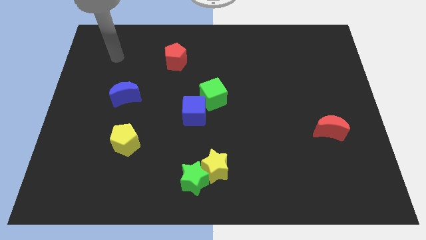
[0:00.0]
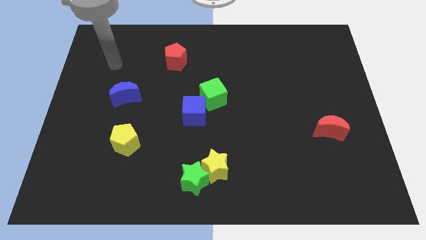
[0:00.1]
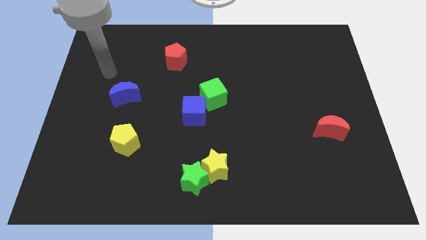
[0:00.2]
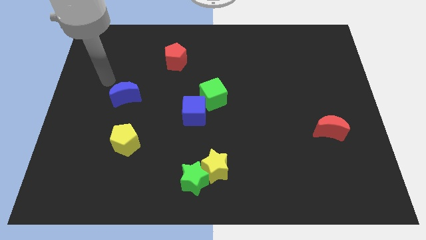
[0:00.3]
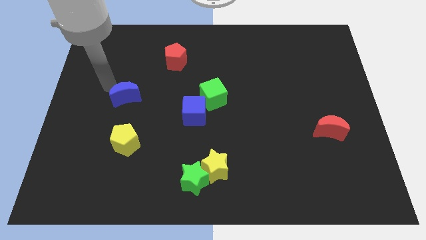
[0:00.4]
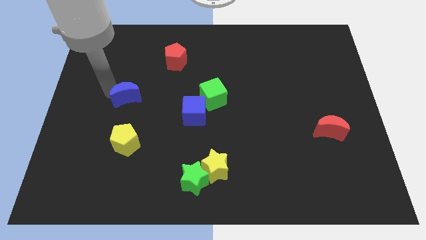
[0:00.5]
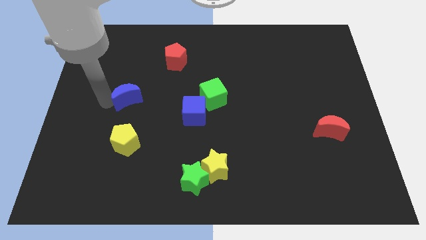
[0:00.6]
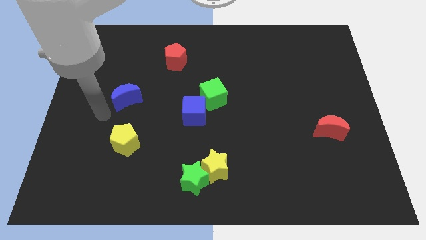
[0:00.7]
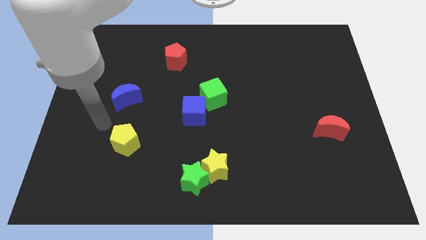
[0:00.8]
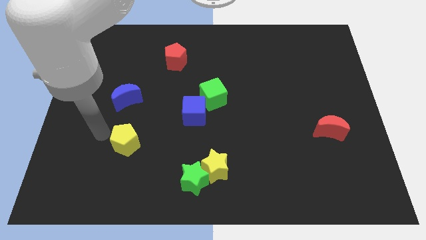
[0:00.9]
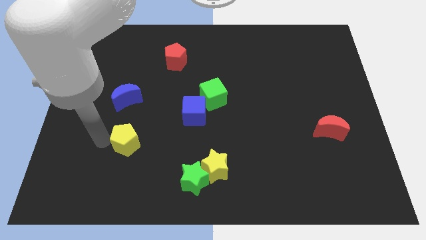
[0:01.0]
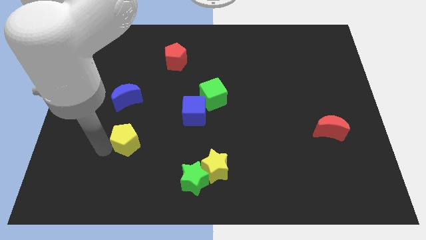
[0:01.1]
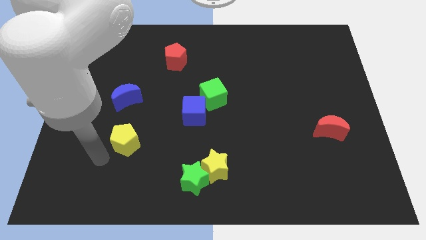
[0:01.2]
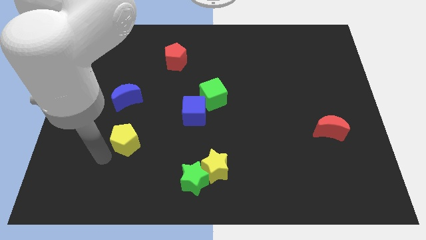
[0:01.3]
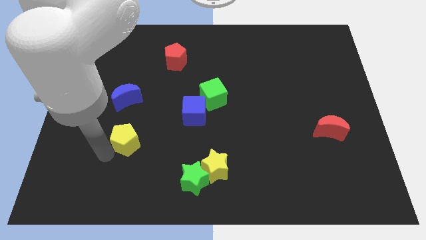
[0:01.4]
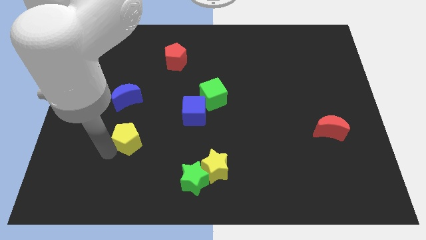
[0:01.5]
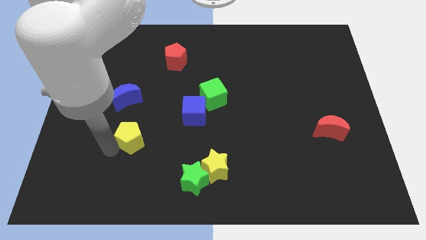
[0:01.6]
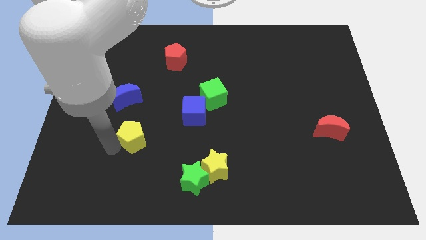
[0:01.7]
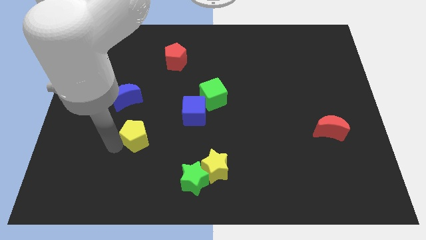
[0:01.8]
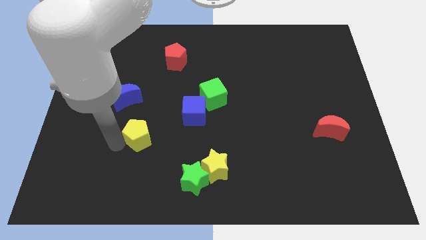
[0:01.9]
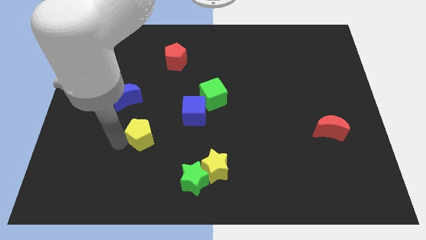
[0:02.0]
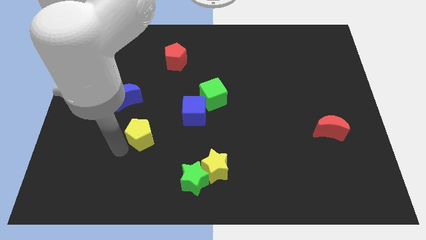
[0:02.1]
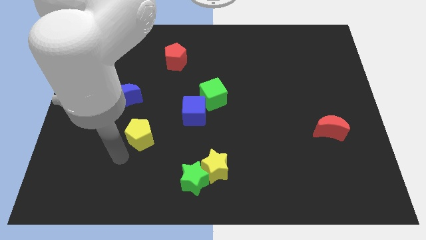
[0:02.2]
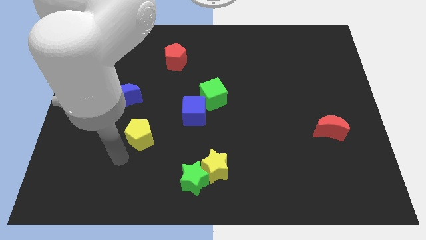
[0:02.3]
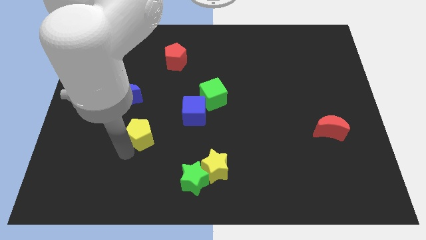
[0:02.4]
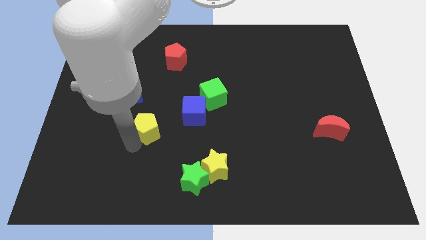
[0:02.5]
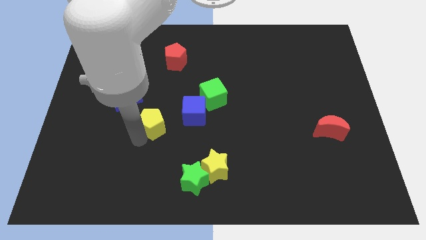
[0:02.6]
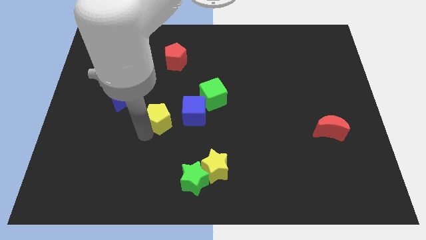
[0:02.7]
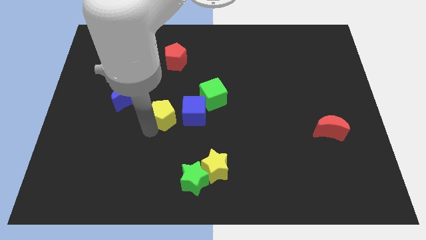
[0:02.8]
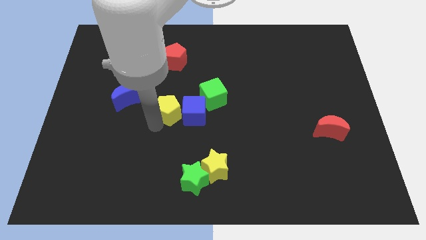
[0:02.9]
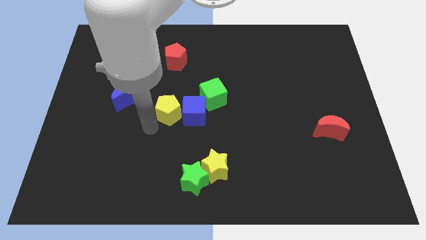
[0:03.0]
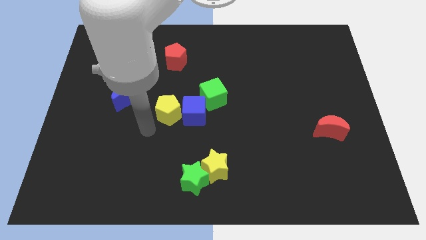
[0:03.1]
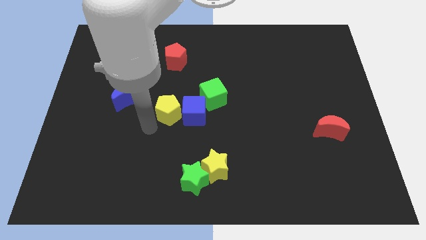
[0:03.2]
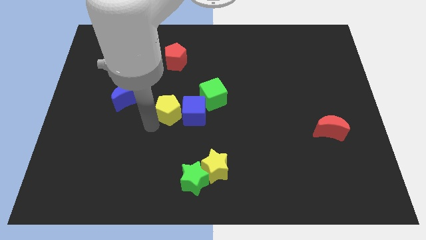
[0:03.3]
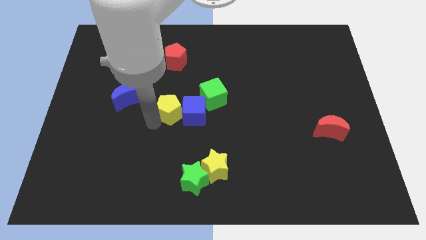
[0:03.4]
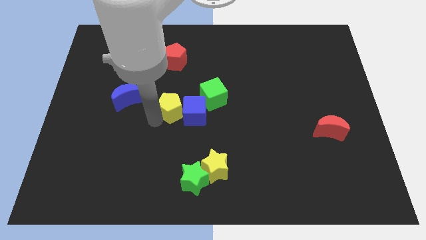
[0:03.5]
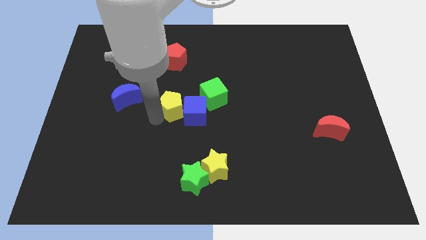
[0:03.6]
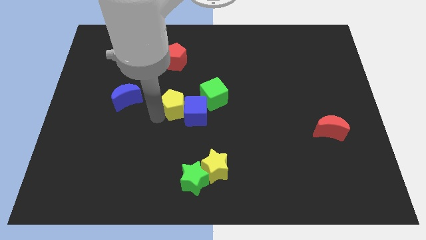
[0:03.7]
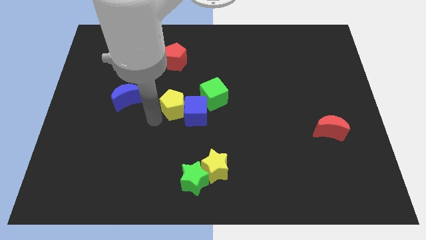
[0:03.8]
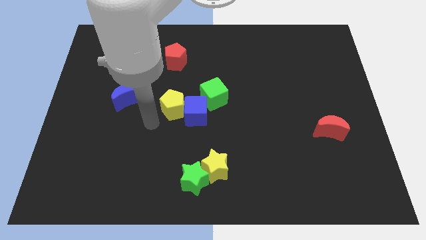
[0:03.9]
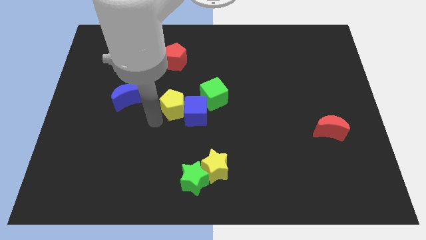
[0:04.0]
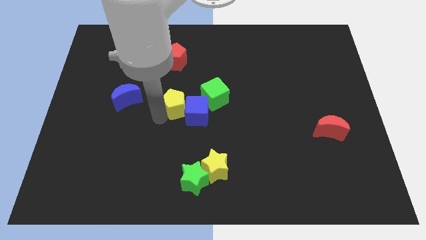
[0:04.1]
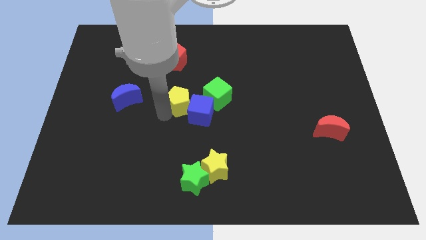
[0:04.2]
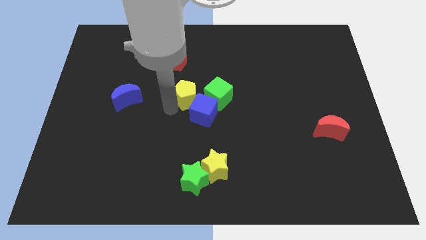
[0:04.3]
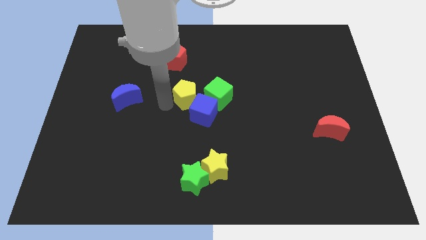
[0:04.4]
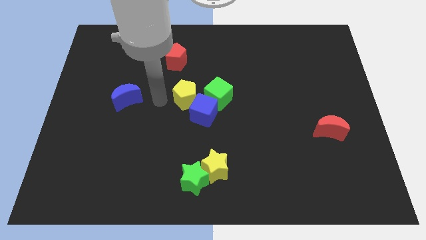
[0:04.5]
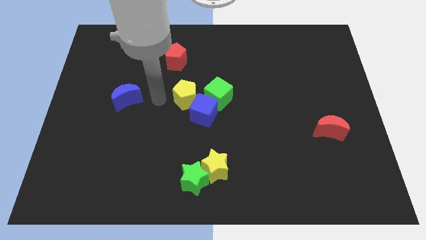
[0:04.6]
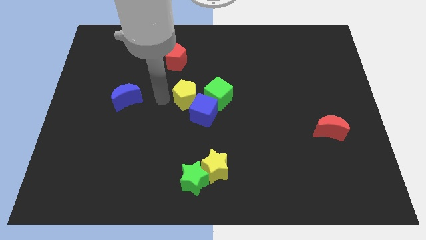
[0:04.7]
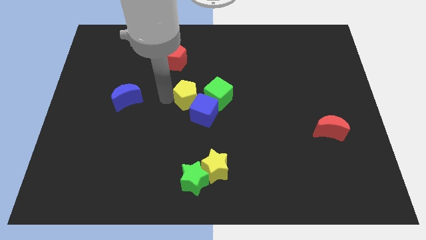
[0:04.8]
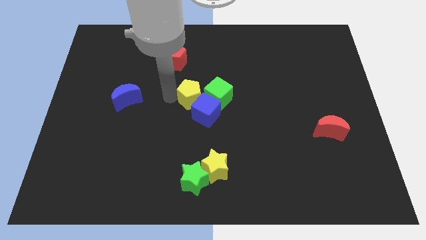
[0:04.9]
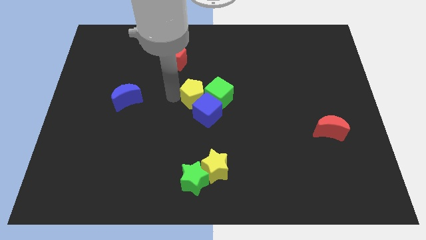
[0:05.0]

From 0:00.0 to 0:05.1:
move the yellow pentagon to the green cube

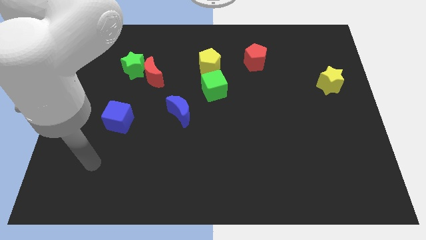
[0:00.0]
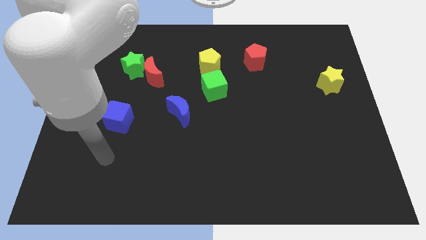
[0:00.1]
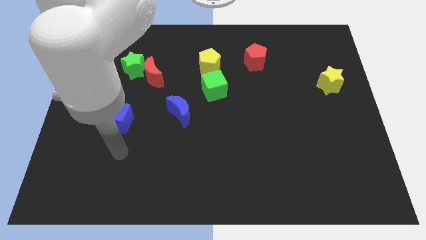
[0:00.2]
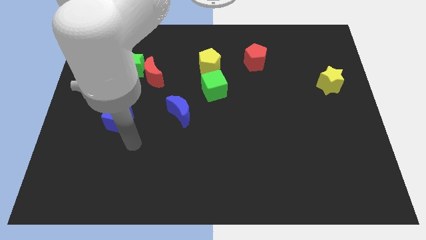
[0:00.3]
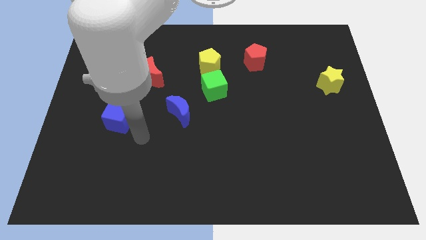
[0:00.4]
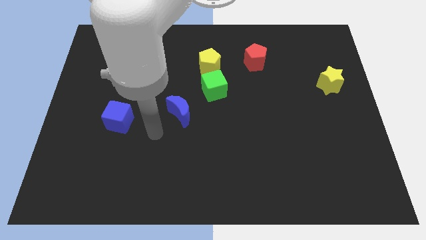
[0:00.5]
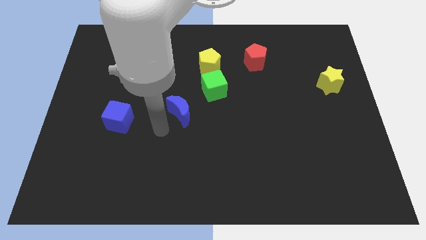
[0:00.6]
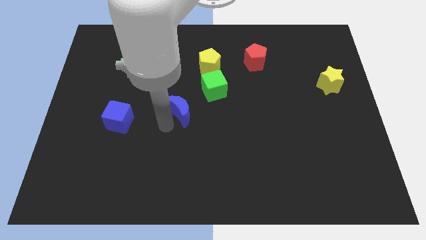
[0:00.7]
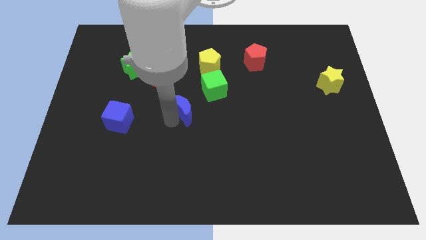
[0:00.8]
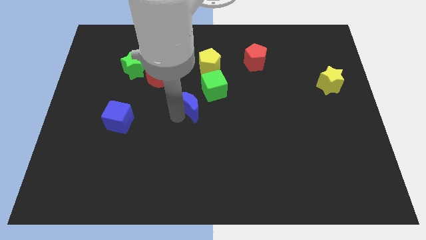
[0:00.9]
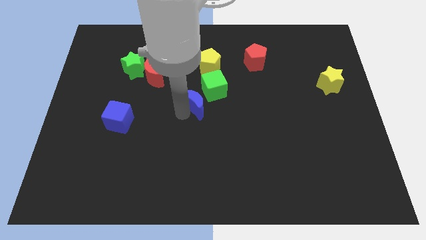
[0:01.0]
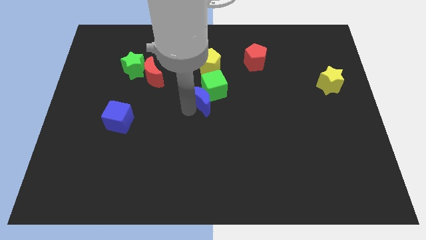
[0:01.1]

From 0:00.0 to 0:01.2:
slide the blue moon towards the green cube
